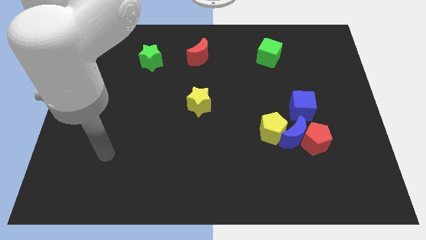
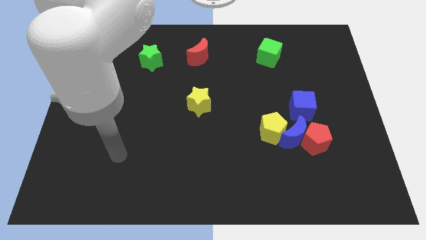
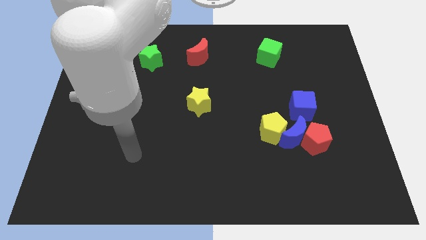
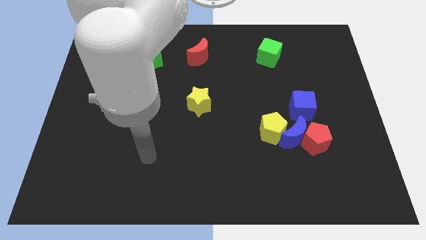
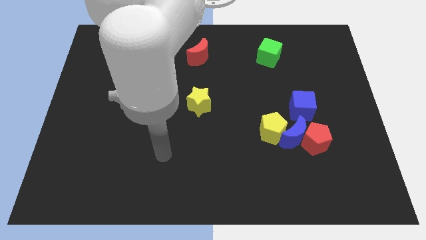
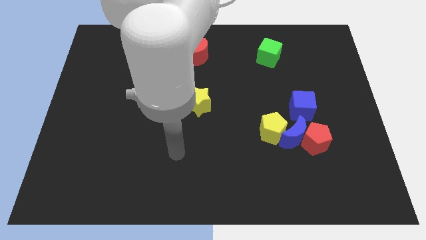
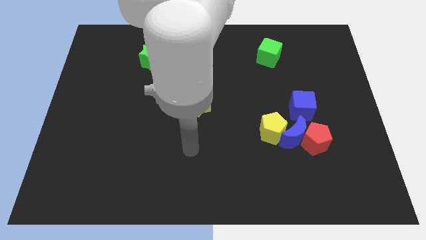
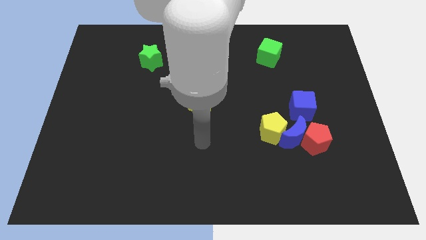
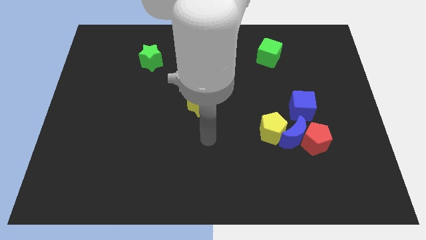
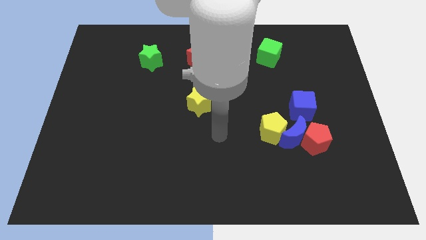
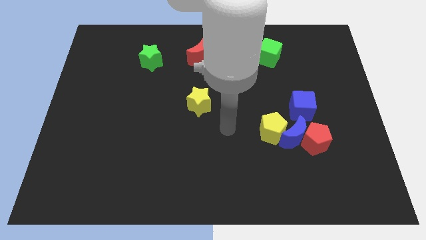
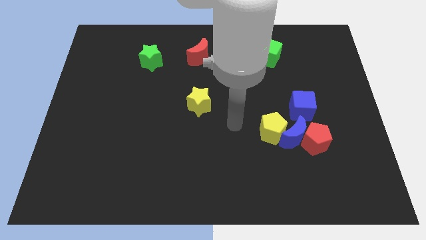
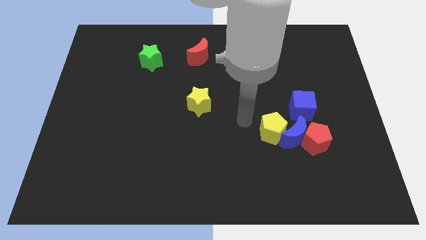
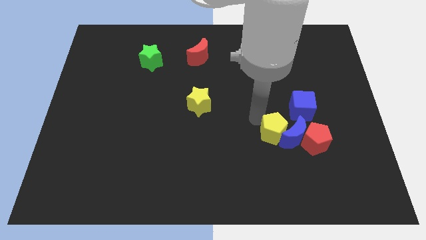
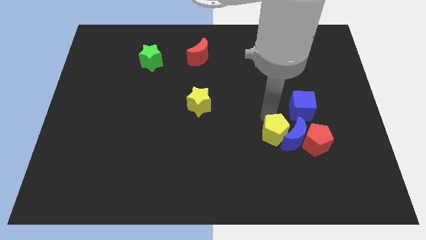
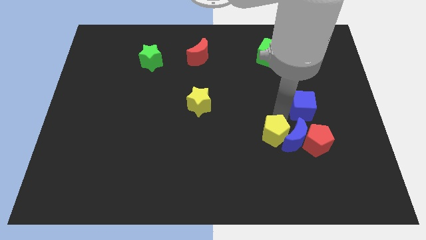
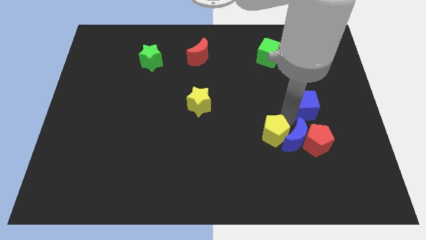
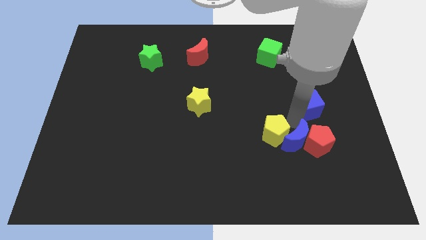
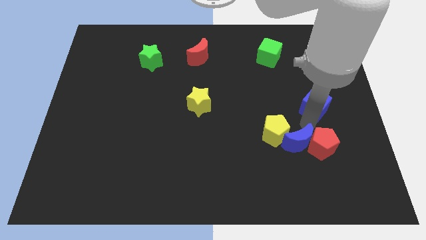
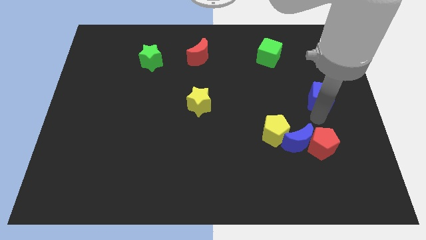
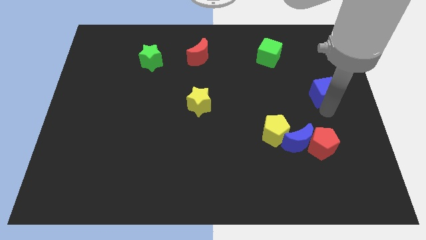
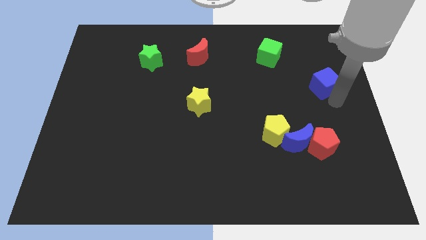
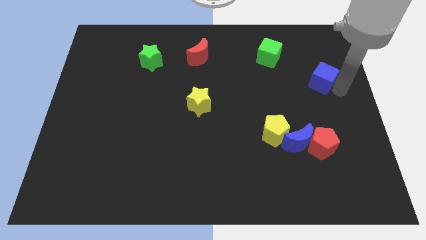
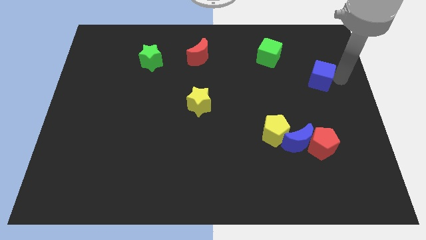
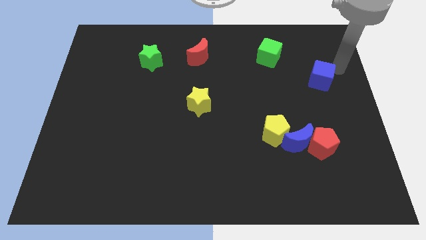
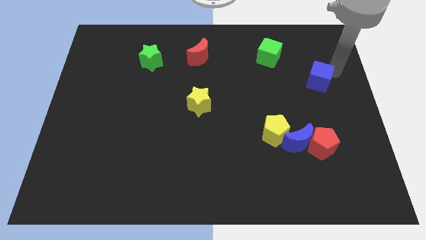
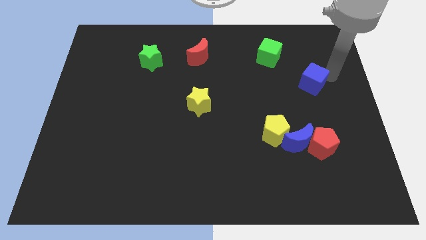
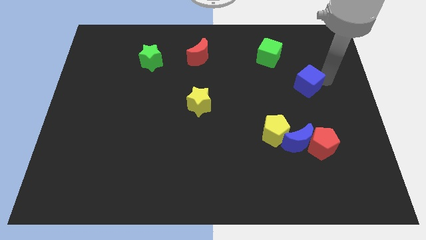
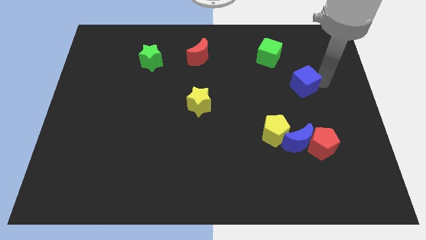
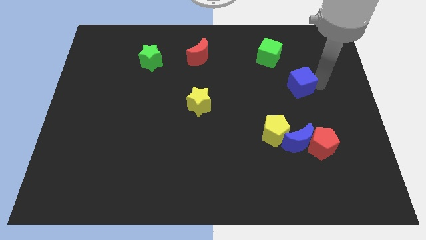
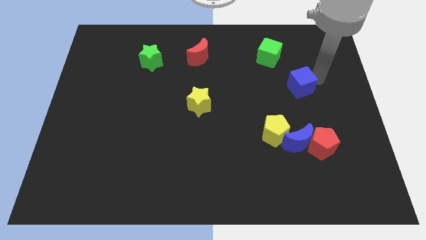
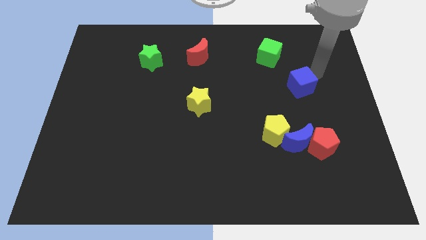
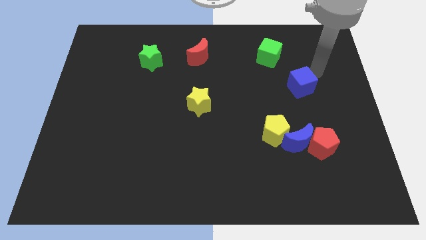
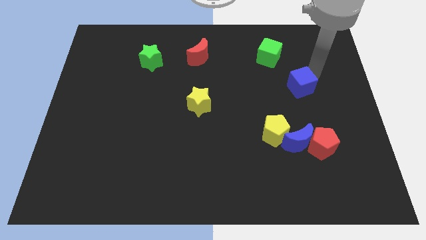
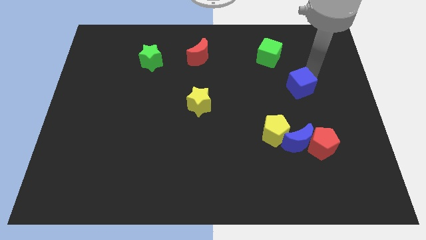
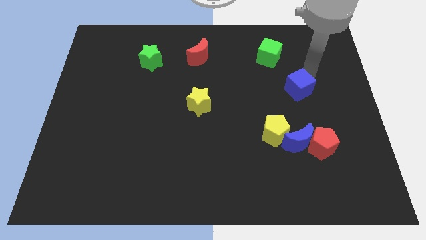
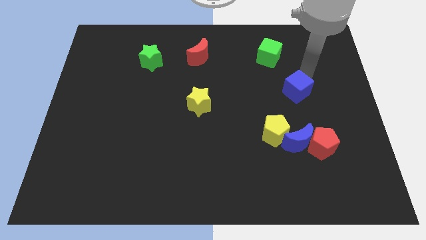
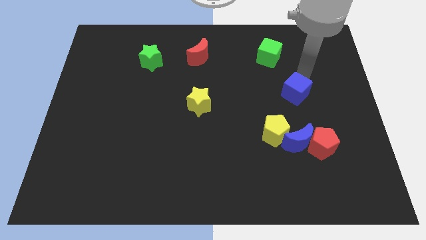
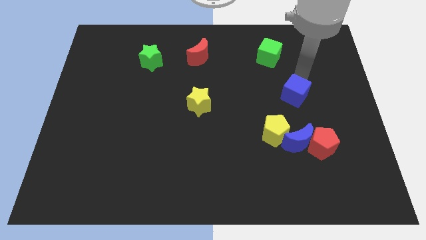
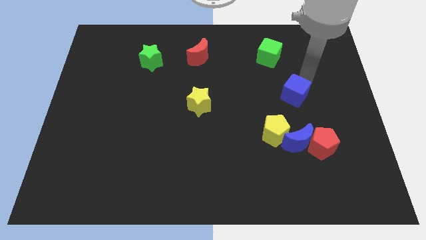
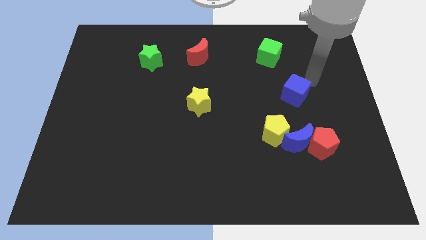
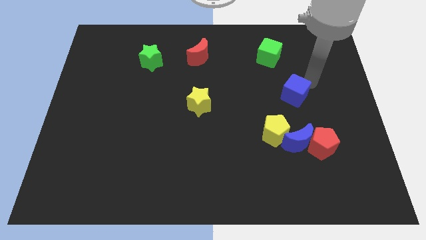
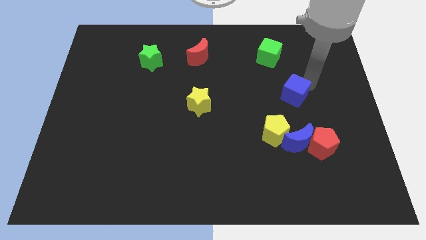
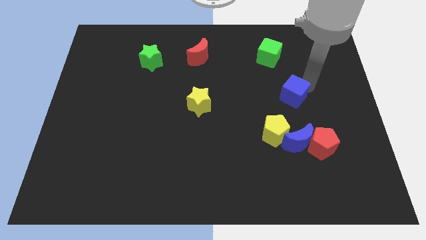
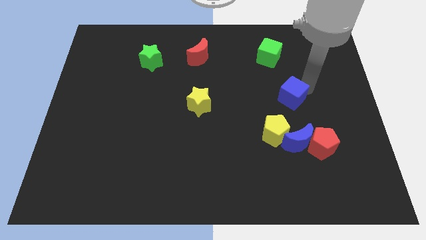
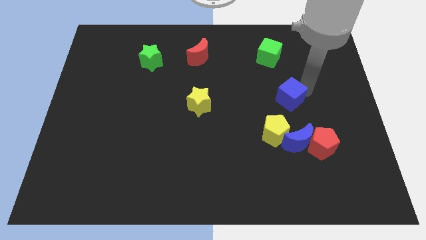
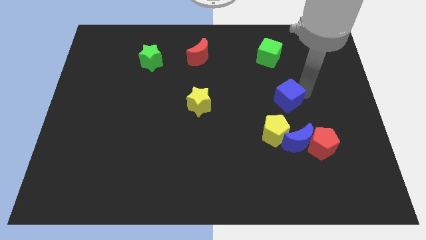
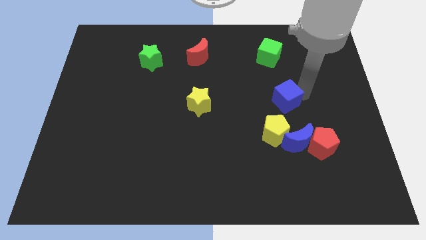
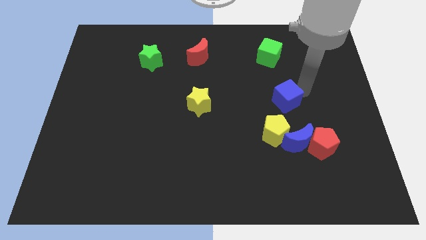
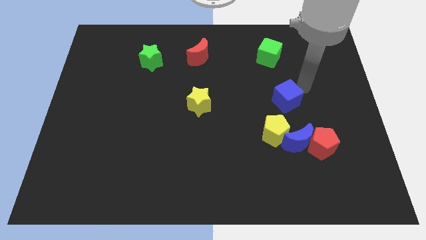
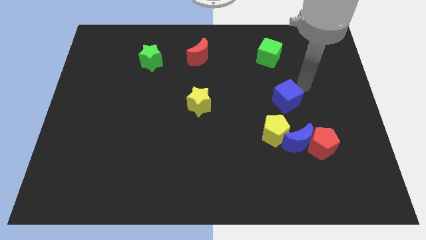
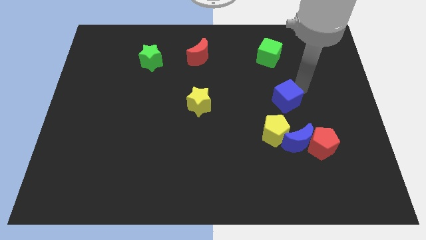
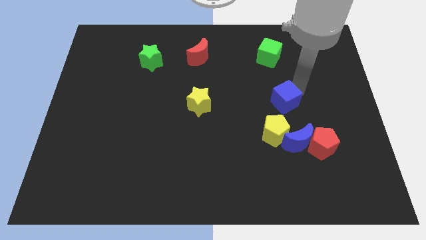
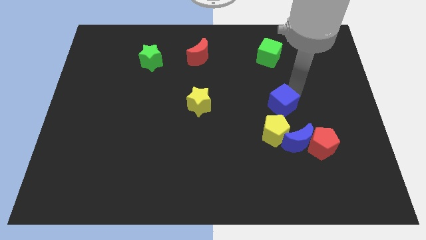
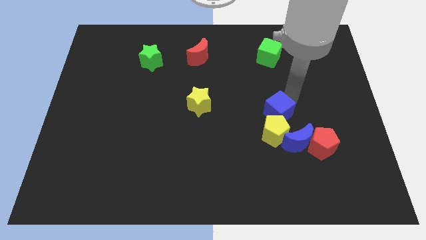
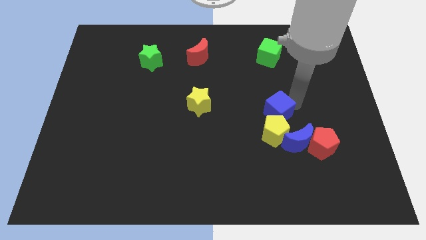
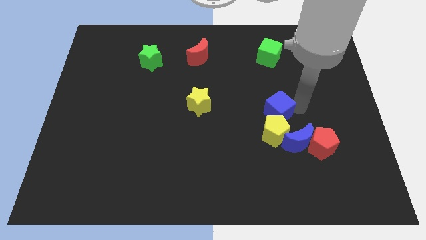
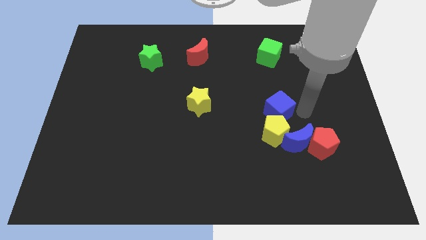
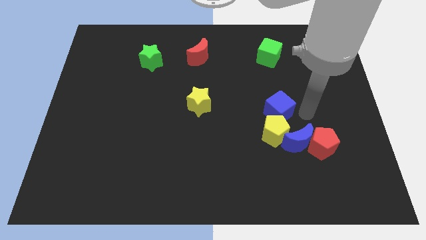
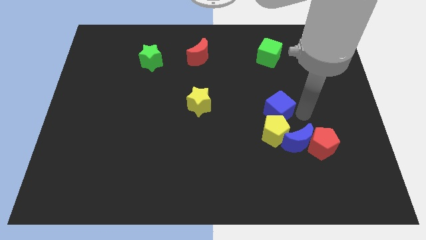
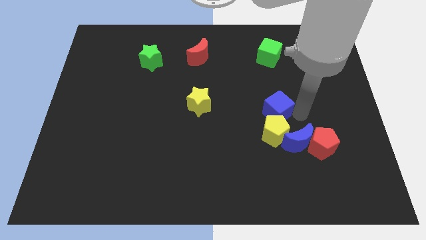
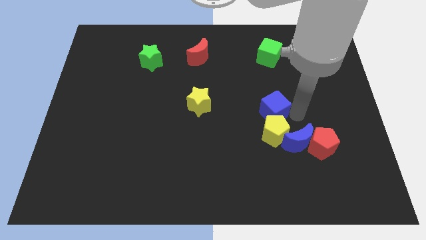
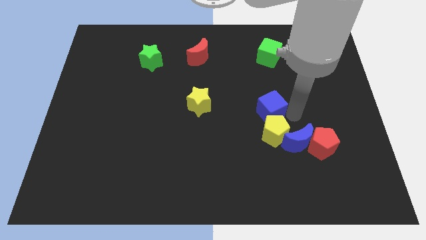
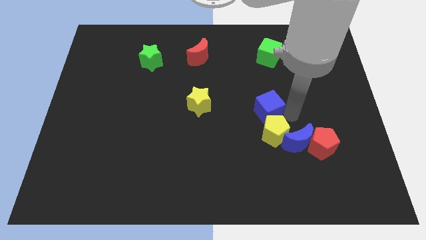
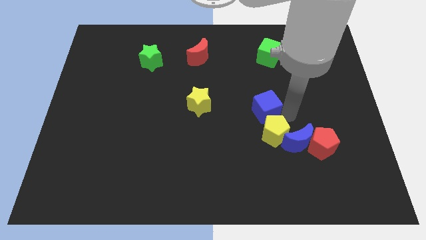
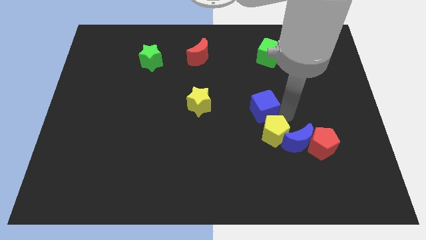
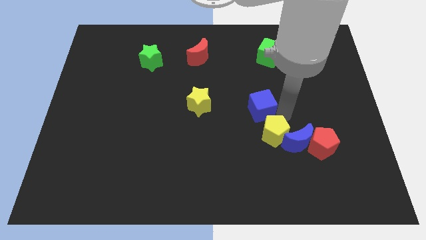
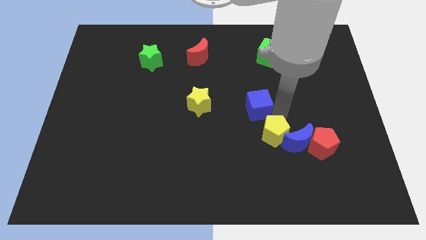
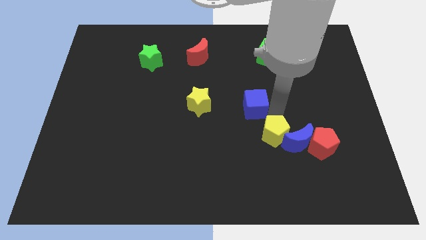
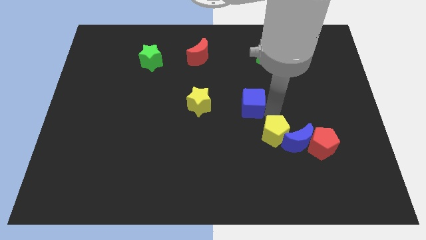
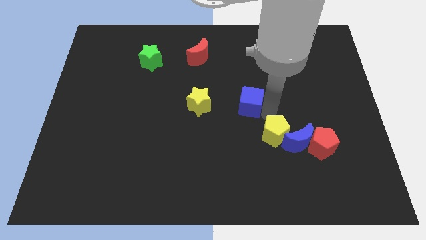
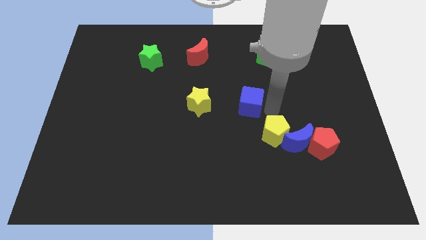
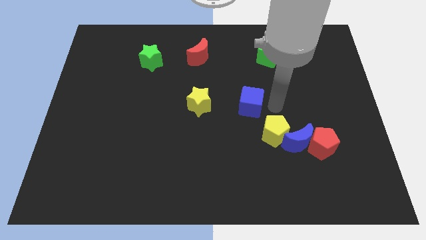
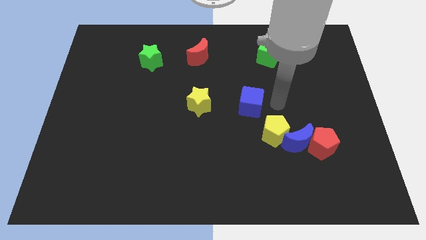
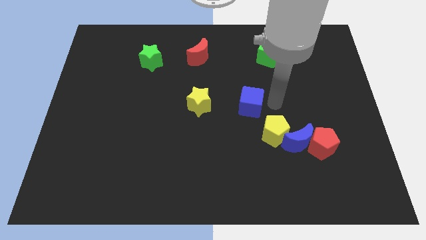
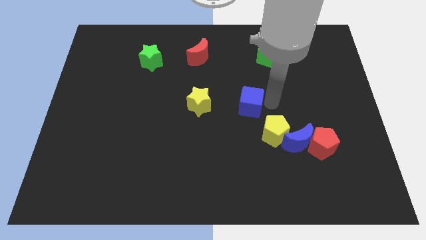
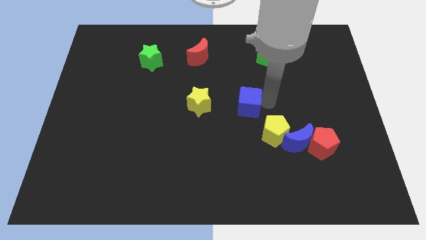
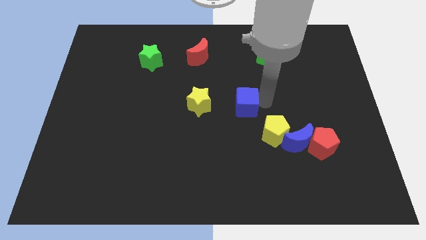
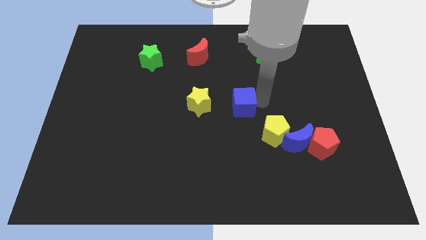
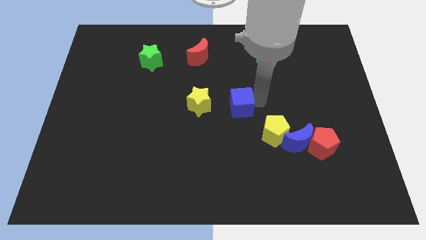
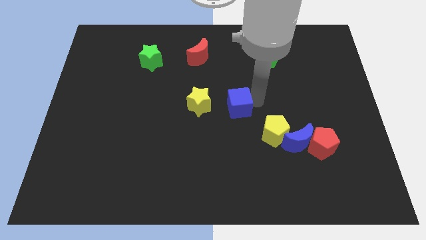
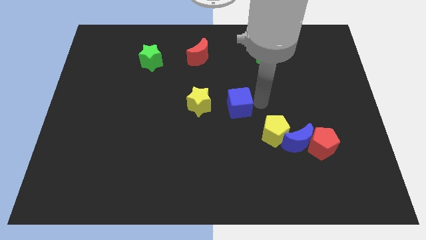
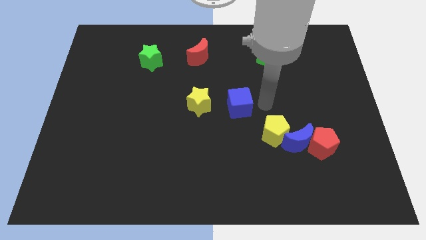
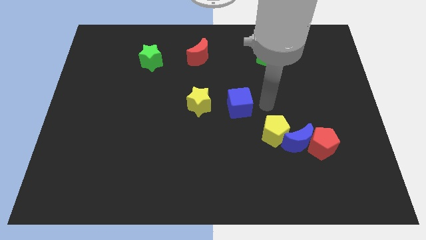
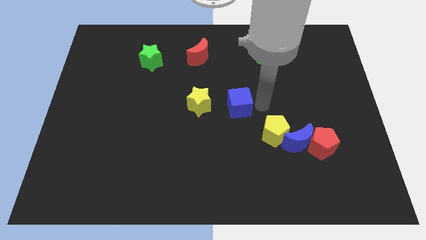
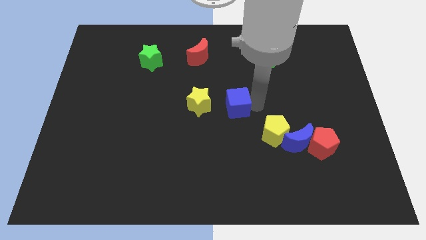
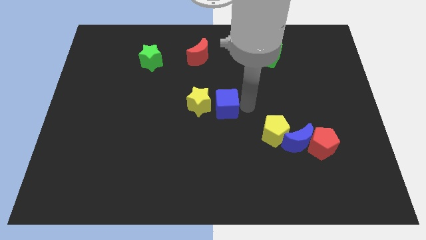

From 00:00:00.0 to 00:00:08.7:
push the blue cube to the yellow star
